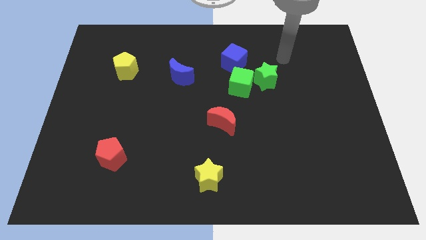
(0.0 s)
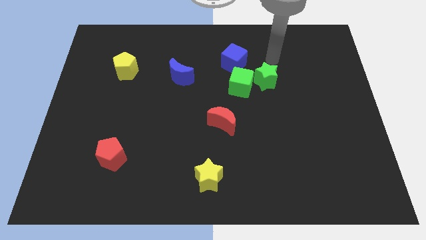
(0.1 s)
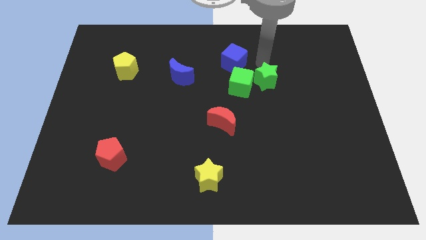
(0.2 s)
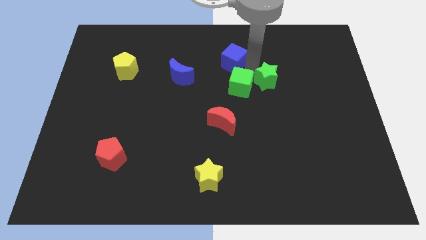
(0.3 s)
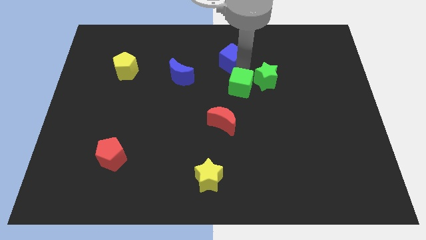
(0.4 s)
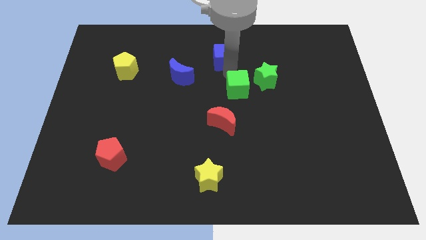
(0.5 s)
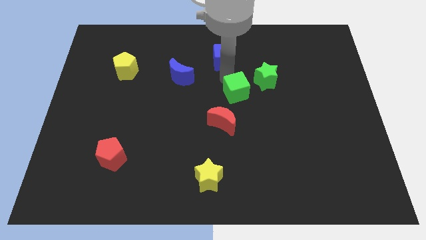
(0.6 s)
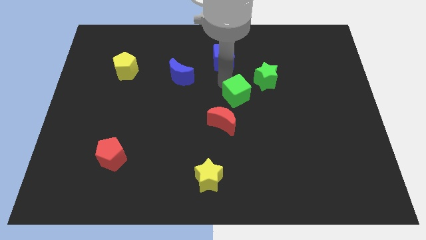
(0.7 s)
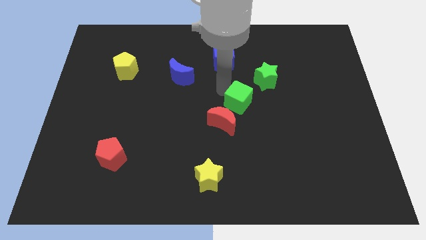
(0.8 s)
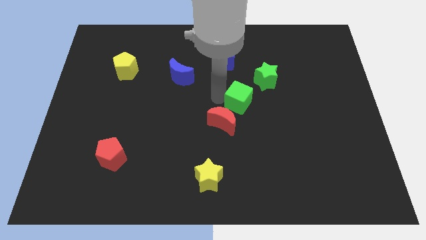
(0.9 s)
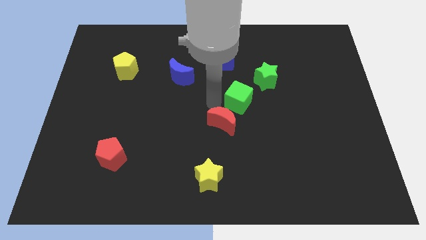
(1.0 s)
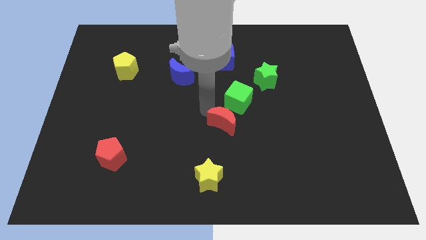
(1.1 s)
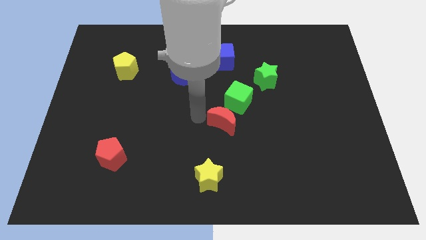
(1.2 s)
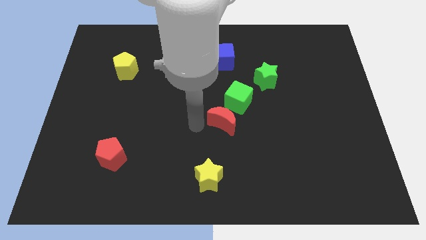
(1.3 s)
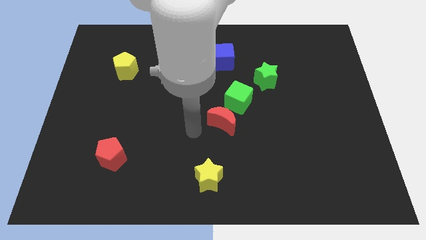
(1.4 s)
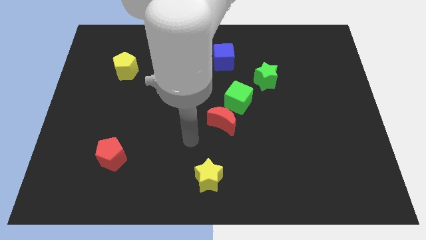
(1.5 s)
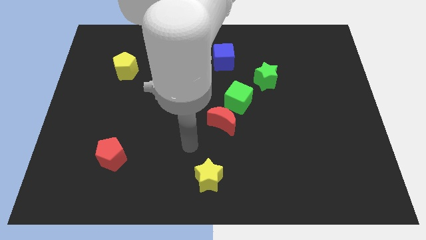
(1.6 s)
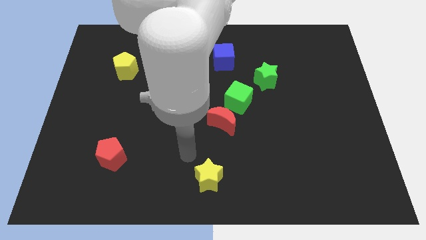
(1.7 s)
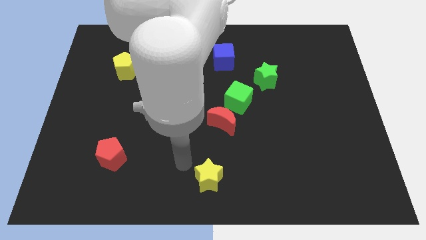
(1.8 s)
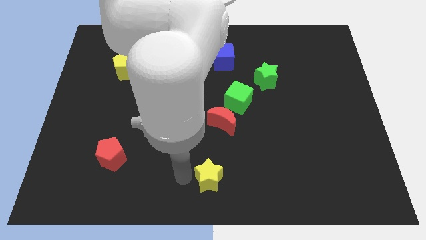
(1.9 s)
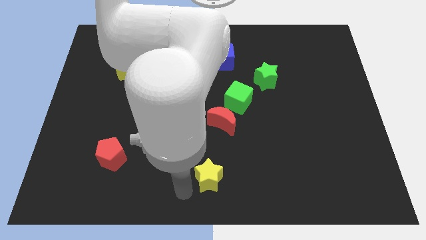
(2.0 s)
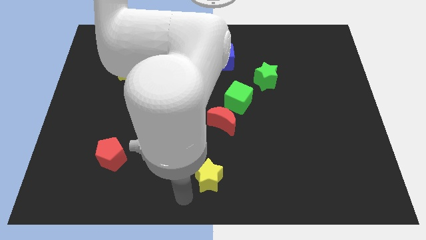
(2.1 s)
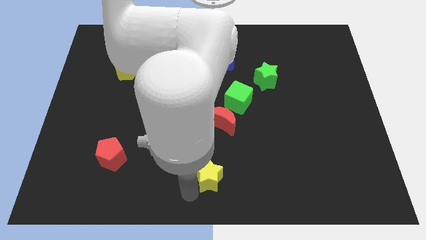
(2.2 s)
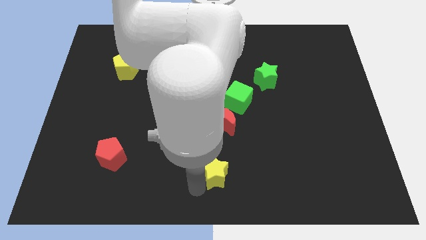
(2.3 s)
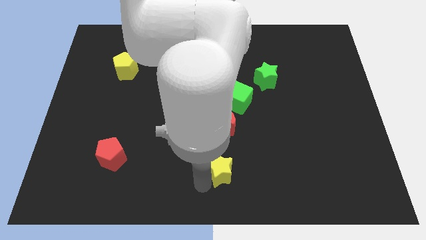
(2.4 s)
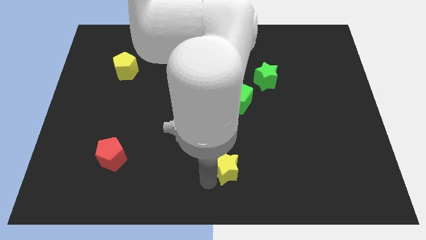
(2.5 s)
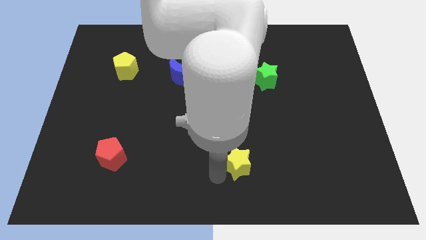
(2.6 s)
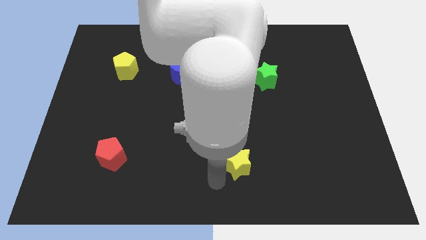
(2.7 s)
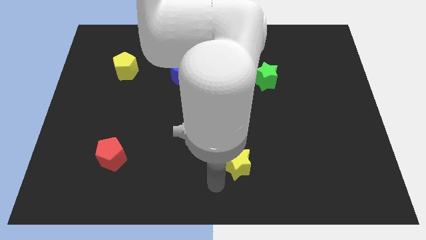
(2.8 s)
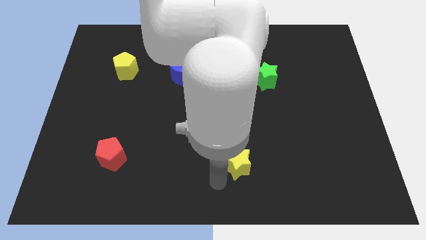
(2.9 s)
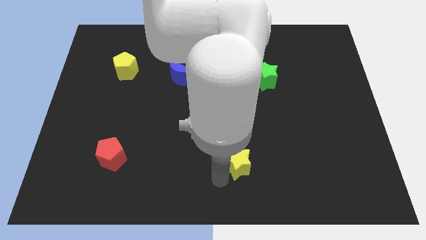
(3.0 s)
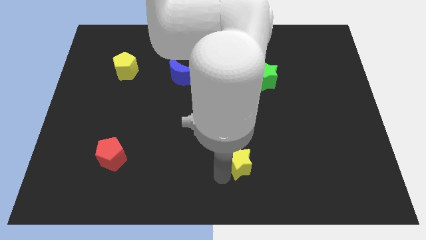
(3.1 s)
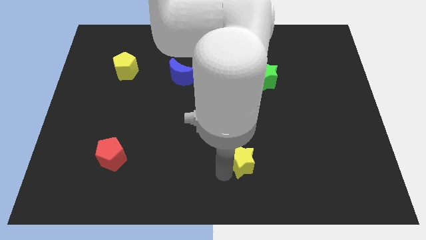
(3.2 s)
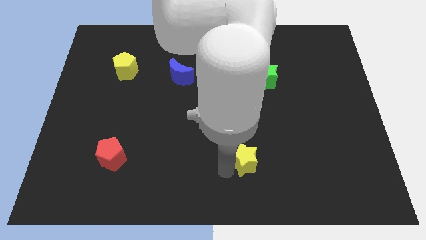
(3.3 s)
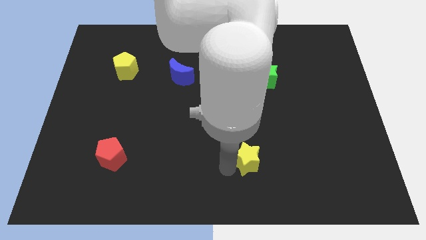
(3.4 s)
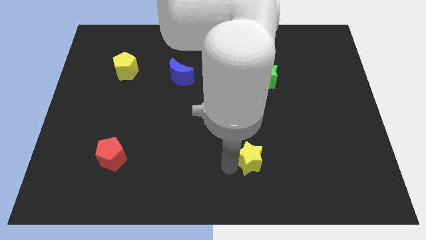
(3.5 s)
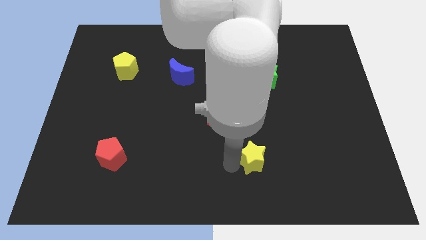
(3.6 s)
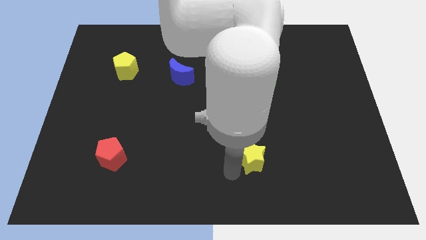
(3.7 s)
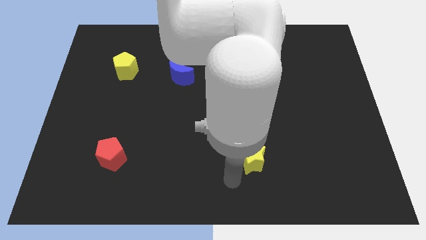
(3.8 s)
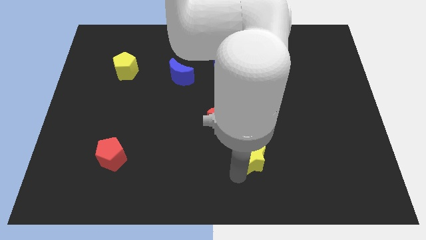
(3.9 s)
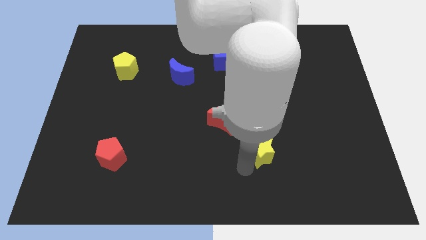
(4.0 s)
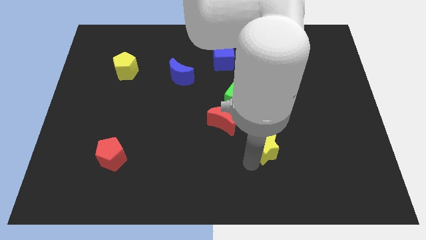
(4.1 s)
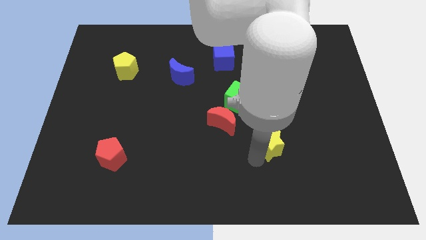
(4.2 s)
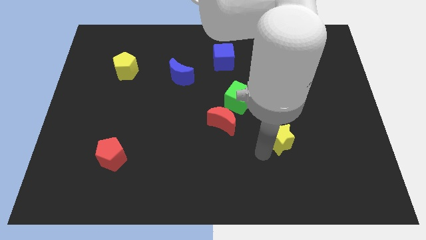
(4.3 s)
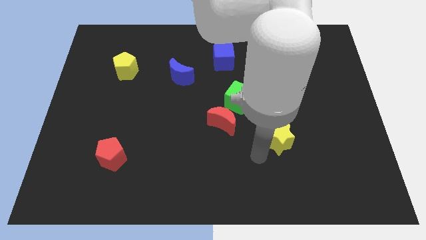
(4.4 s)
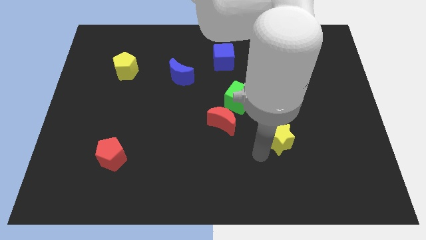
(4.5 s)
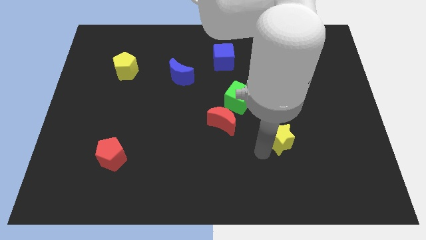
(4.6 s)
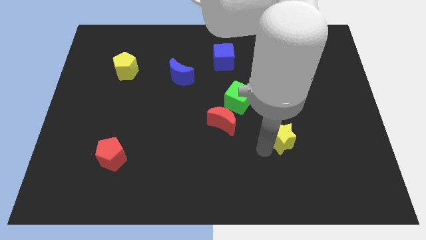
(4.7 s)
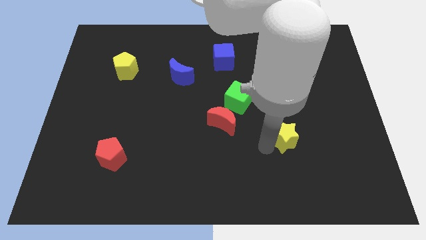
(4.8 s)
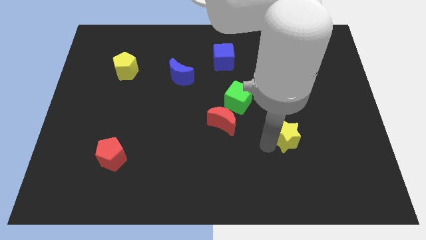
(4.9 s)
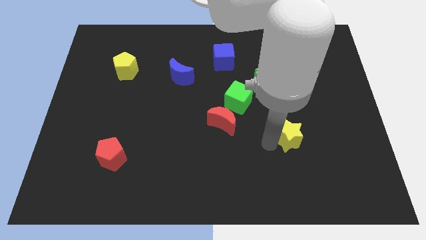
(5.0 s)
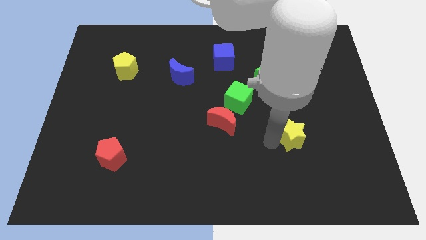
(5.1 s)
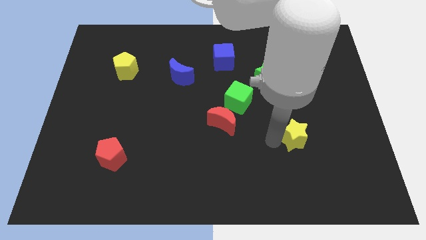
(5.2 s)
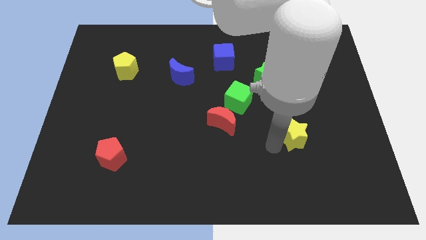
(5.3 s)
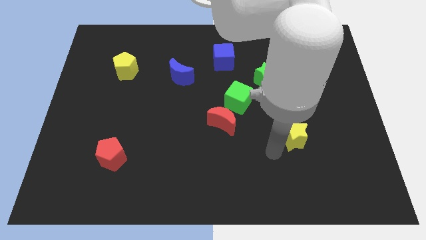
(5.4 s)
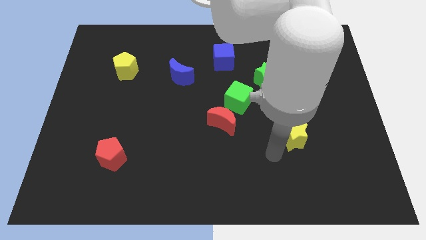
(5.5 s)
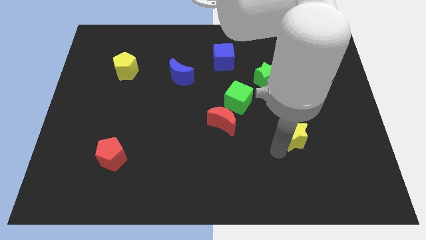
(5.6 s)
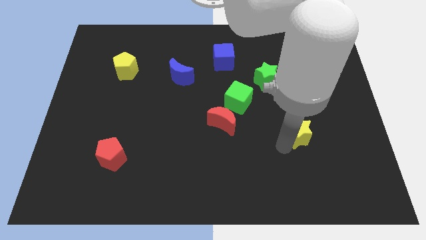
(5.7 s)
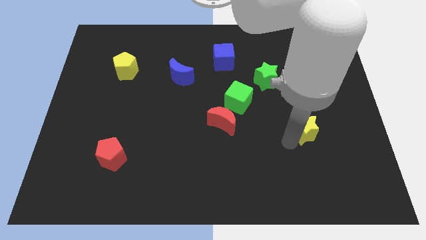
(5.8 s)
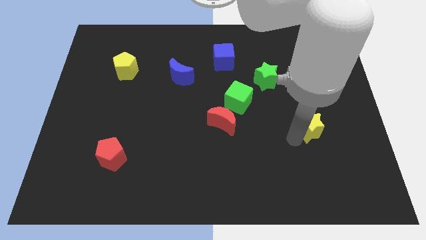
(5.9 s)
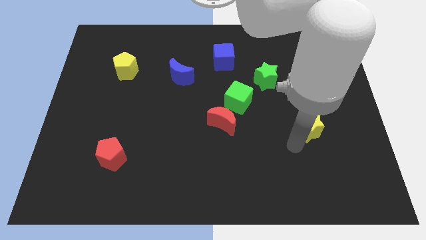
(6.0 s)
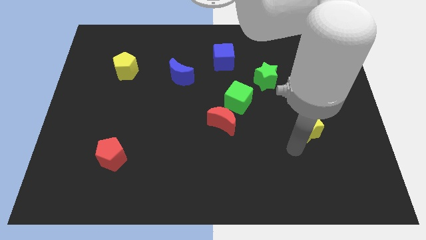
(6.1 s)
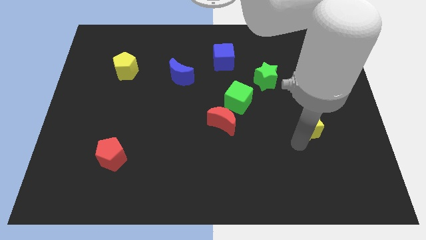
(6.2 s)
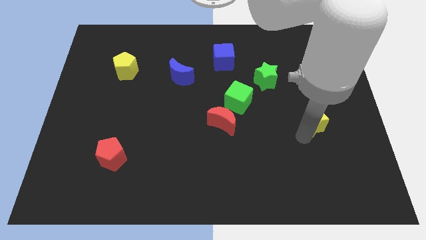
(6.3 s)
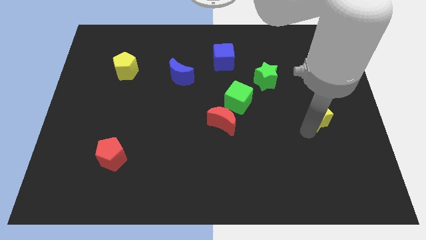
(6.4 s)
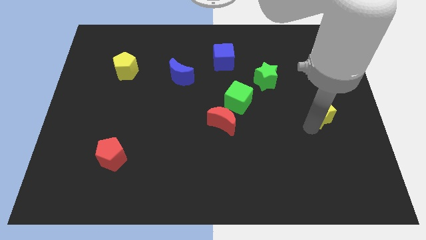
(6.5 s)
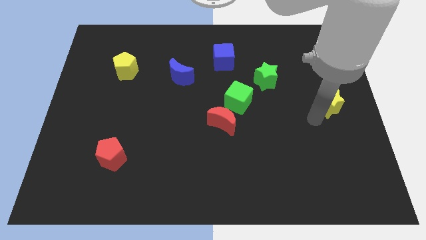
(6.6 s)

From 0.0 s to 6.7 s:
push the yellow star to the right side
